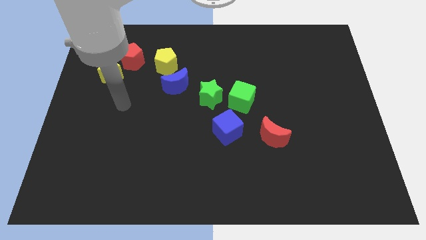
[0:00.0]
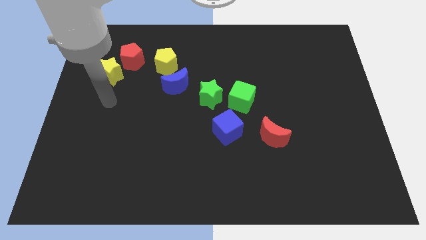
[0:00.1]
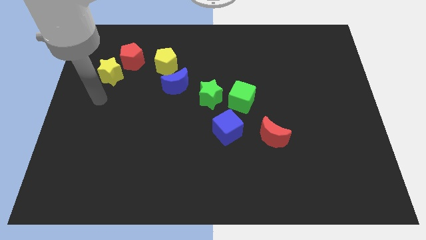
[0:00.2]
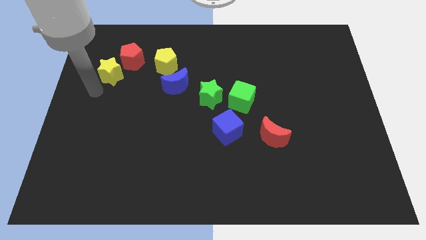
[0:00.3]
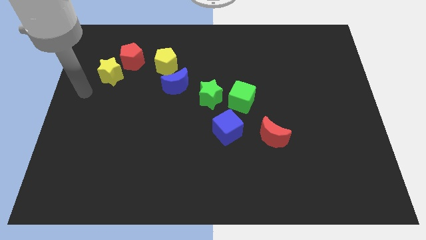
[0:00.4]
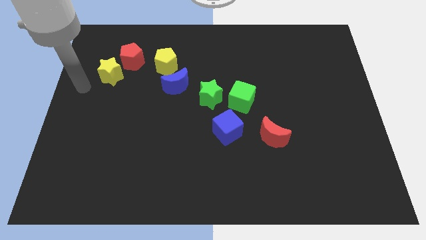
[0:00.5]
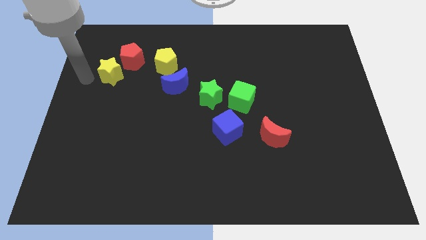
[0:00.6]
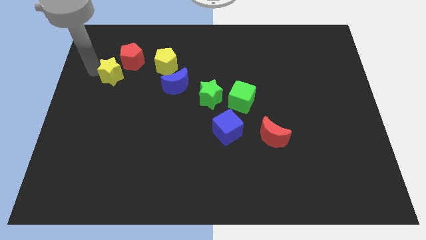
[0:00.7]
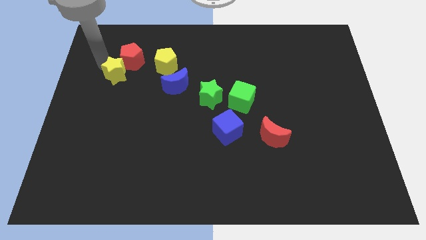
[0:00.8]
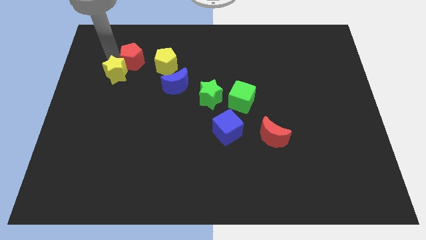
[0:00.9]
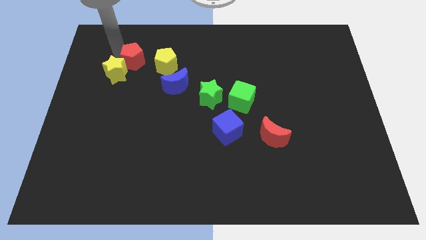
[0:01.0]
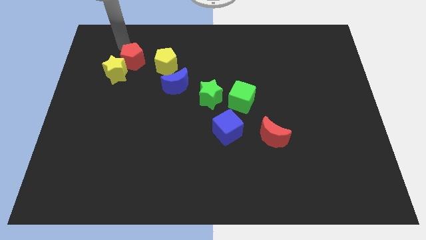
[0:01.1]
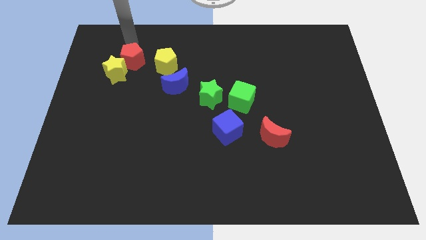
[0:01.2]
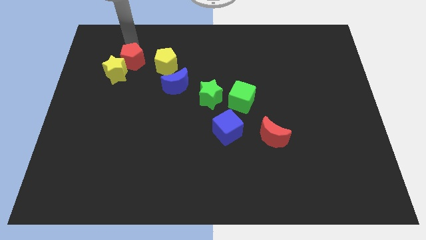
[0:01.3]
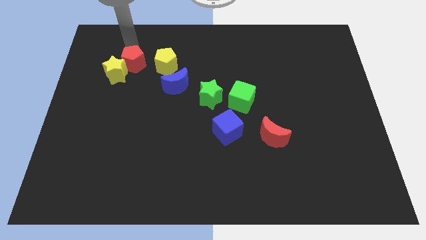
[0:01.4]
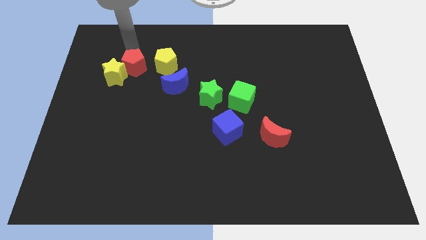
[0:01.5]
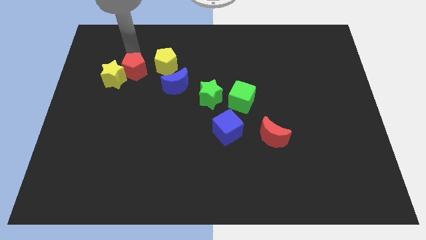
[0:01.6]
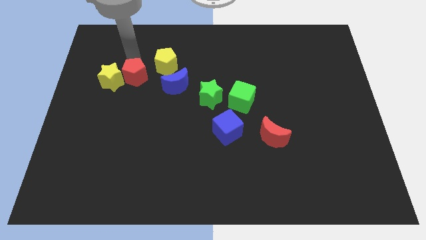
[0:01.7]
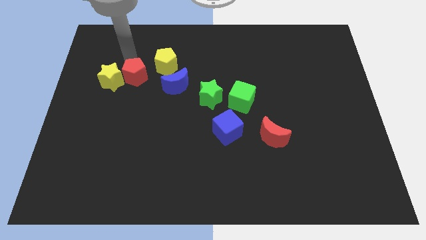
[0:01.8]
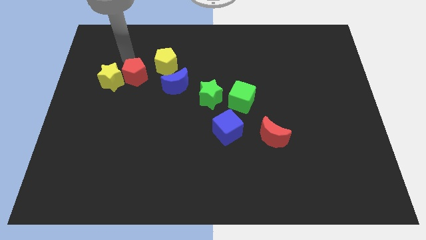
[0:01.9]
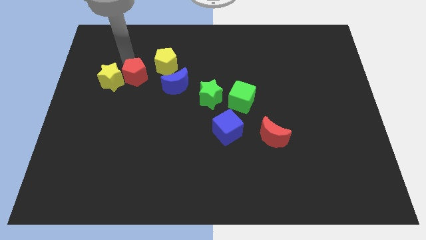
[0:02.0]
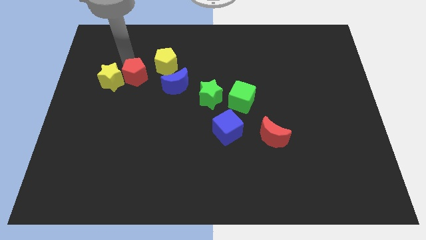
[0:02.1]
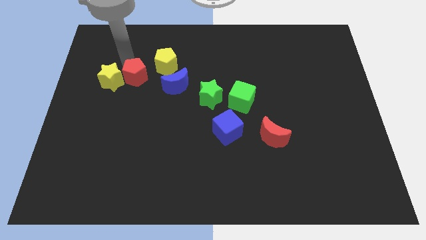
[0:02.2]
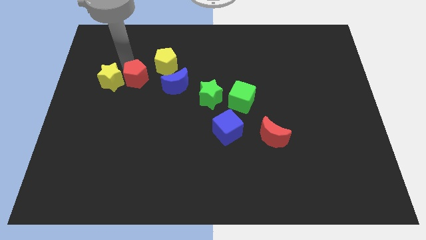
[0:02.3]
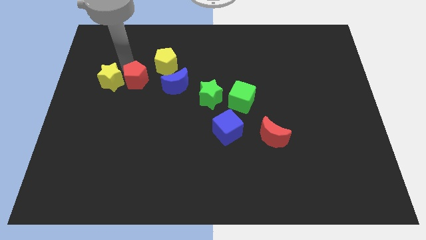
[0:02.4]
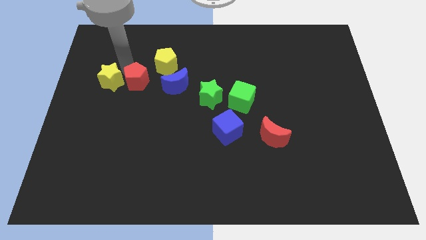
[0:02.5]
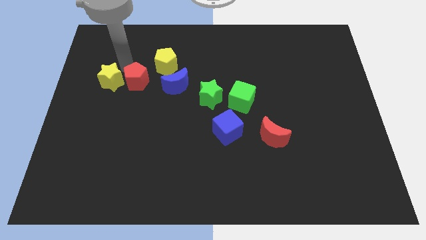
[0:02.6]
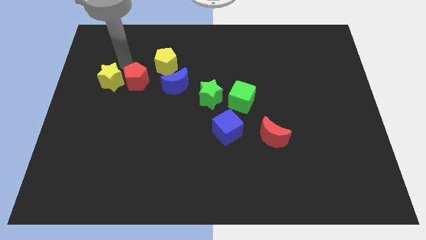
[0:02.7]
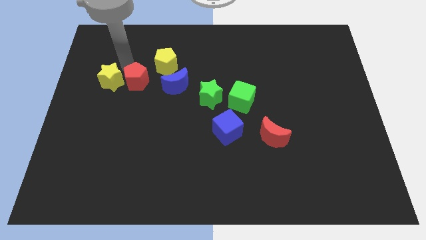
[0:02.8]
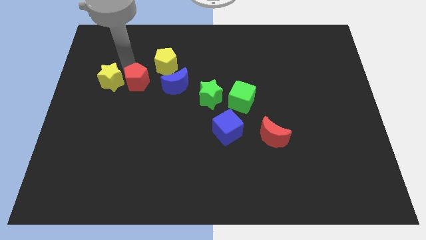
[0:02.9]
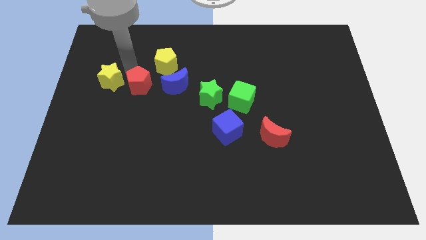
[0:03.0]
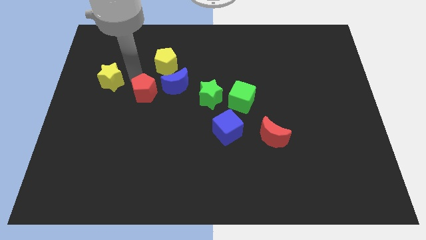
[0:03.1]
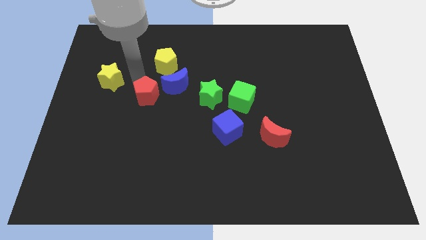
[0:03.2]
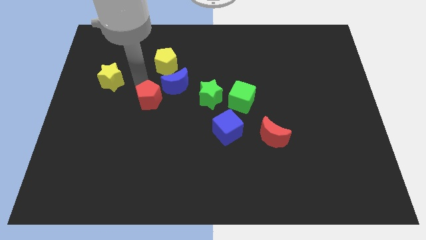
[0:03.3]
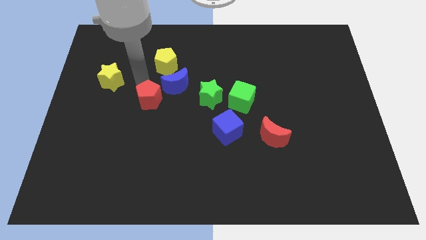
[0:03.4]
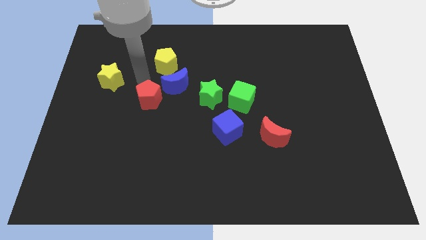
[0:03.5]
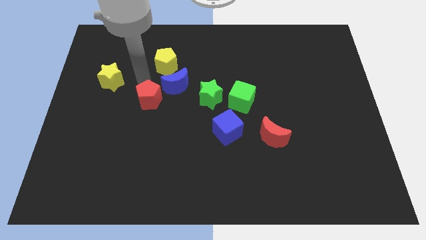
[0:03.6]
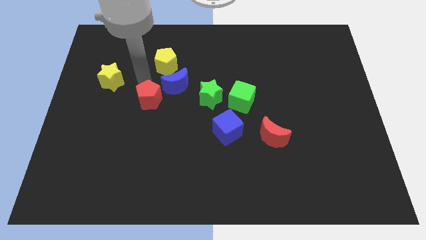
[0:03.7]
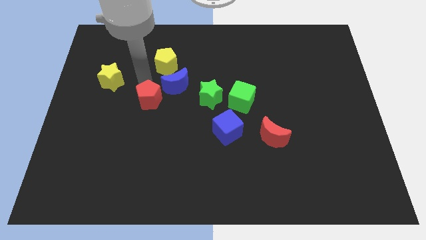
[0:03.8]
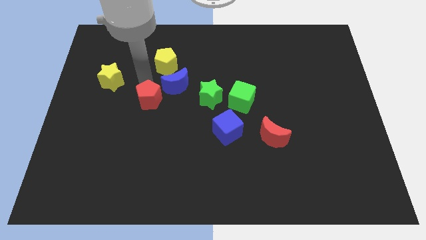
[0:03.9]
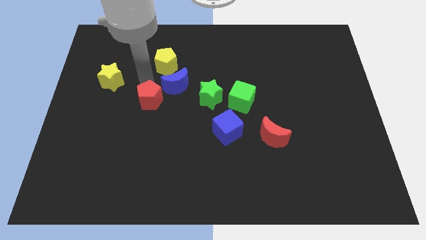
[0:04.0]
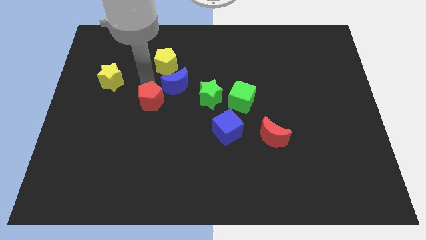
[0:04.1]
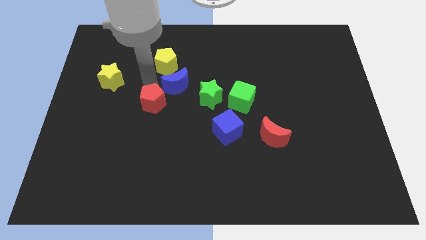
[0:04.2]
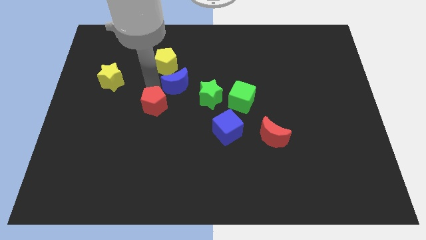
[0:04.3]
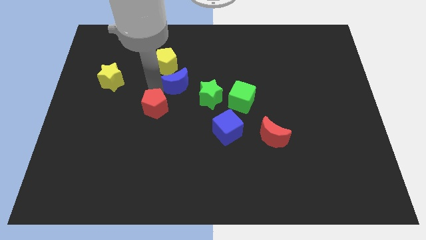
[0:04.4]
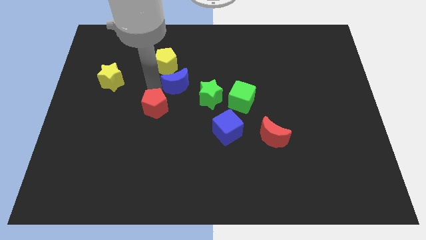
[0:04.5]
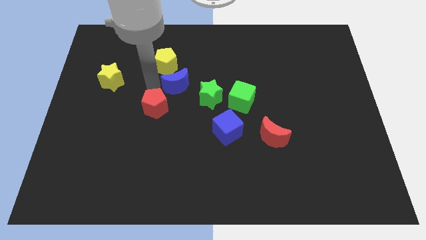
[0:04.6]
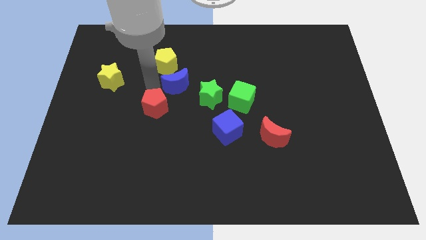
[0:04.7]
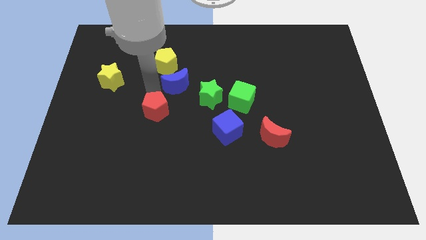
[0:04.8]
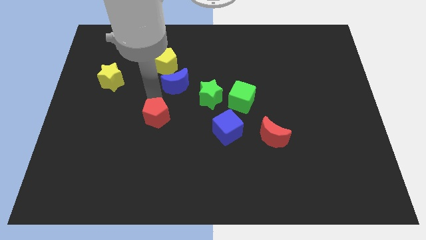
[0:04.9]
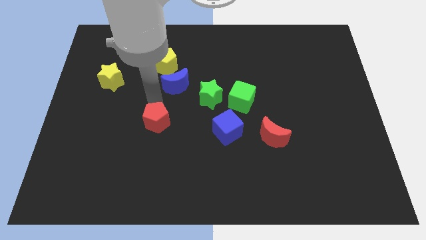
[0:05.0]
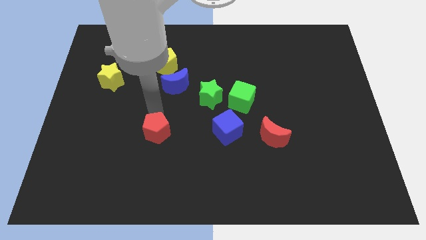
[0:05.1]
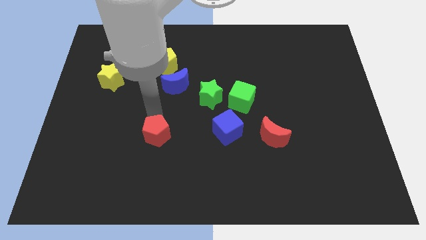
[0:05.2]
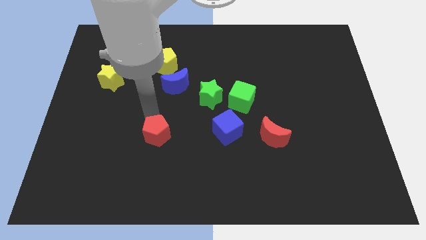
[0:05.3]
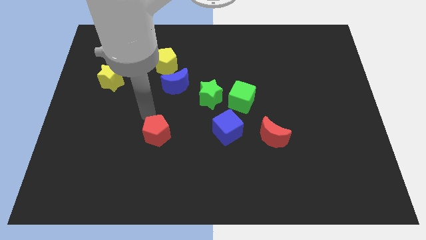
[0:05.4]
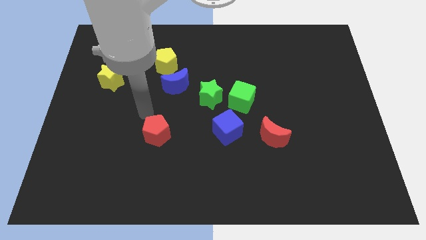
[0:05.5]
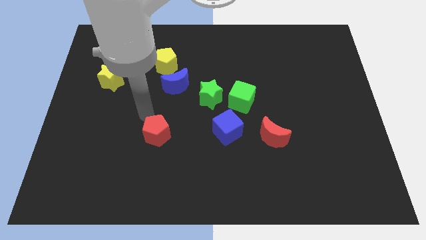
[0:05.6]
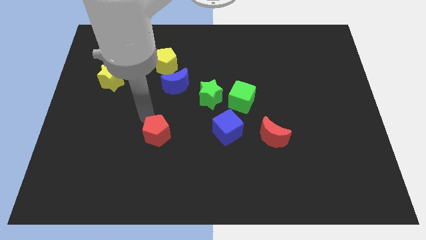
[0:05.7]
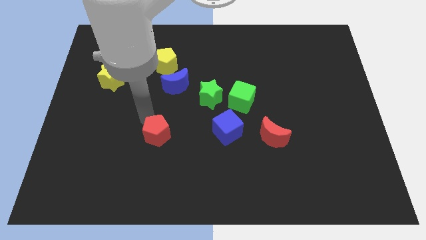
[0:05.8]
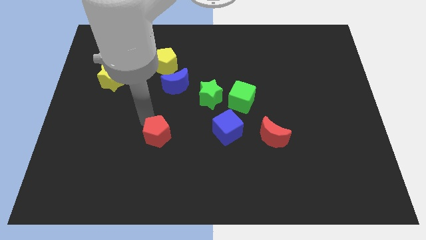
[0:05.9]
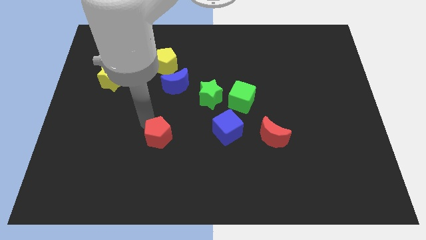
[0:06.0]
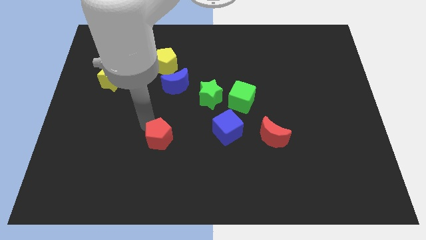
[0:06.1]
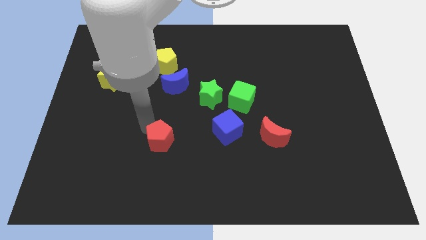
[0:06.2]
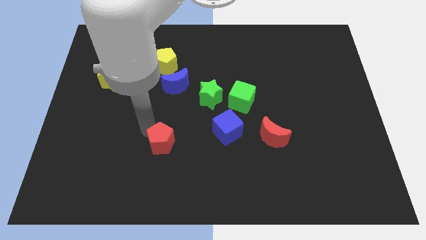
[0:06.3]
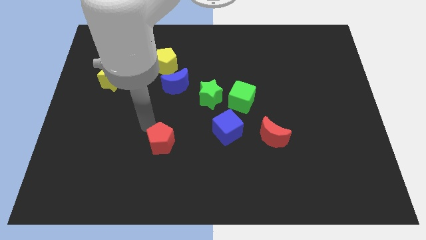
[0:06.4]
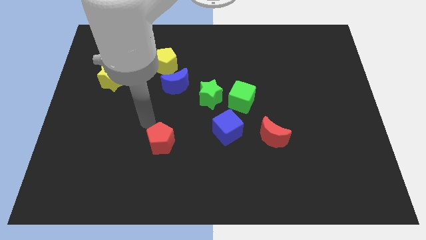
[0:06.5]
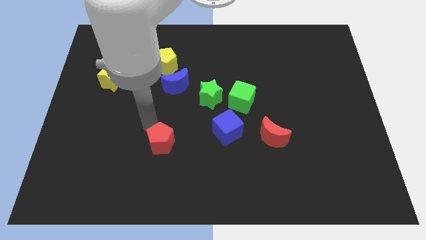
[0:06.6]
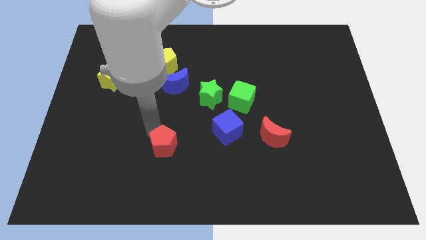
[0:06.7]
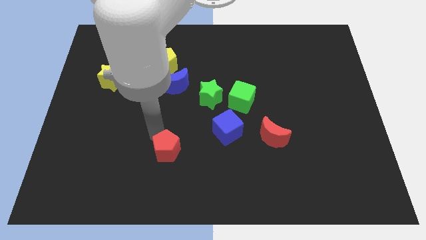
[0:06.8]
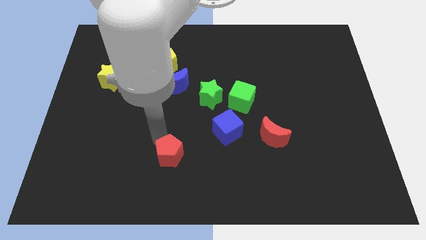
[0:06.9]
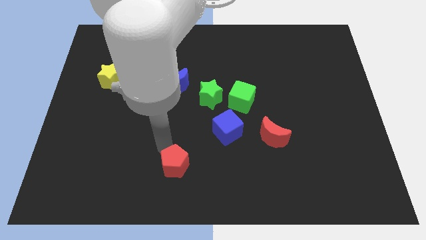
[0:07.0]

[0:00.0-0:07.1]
put the red pentagon to the bottom
